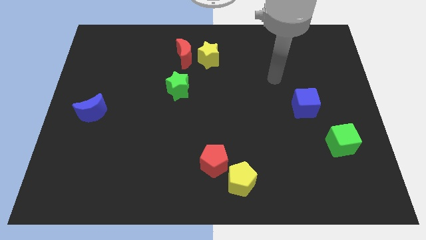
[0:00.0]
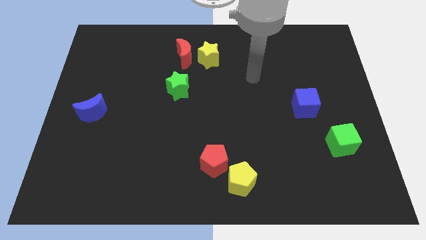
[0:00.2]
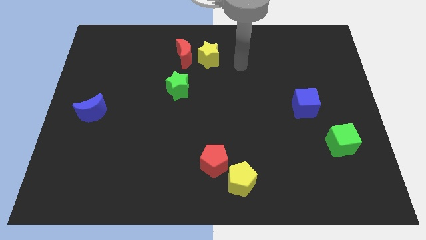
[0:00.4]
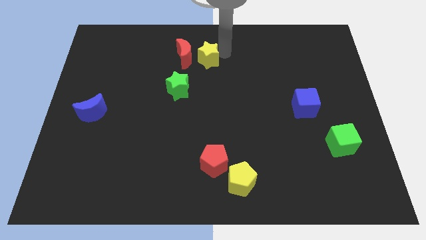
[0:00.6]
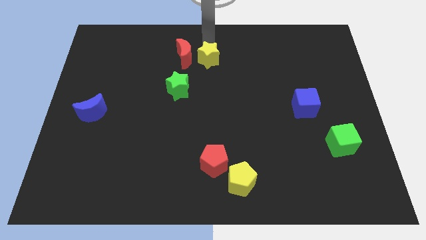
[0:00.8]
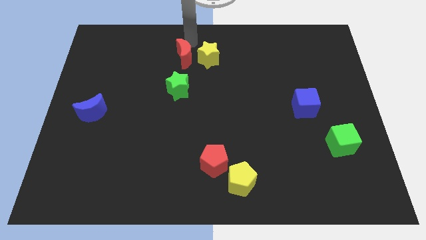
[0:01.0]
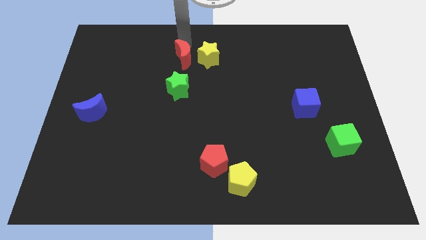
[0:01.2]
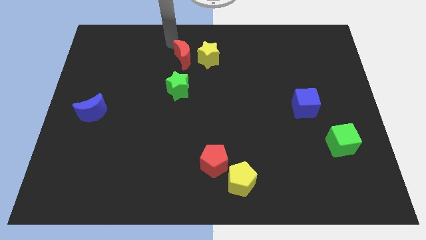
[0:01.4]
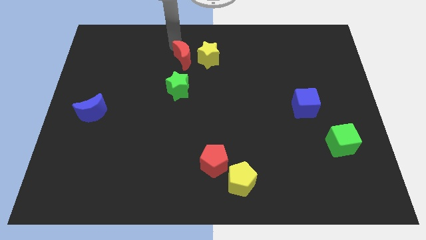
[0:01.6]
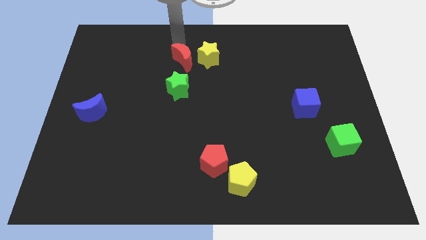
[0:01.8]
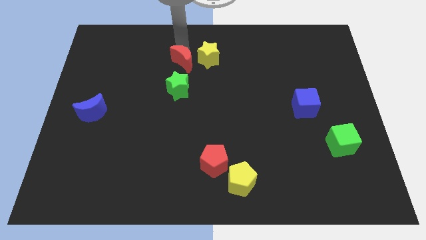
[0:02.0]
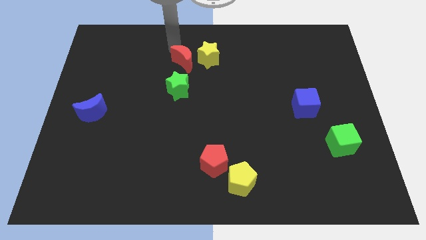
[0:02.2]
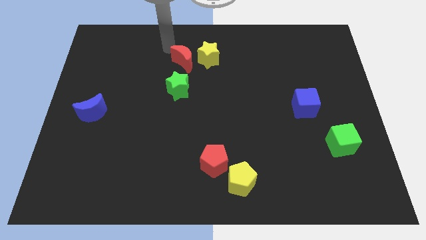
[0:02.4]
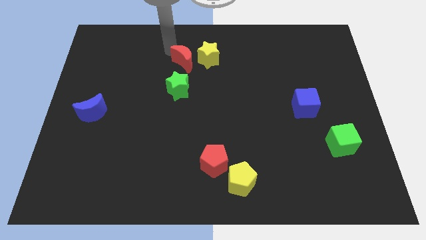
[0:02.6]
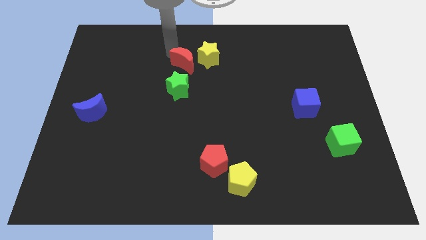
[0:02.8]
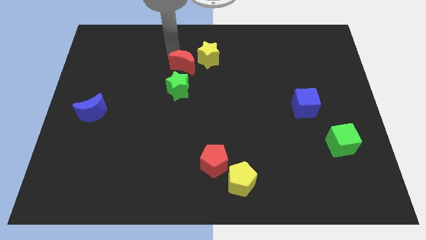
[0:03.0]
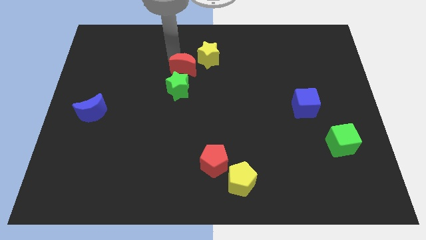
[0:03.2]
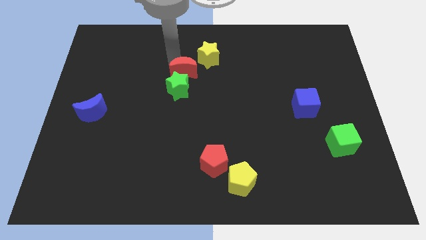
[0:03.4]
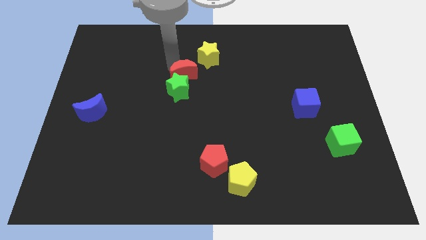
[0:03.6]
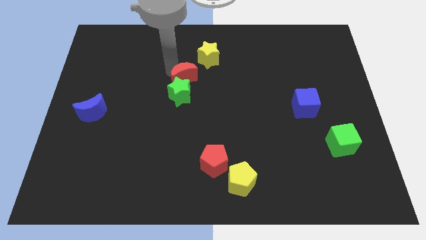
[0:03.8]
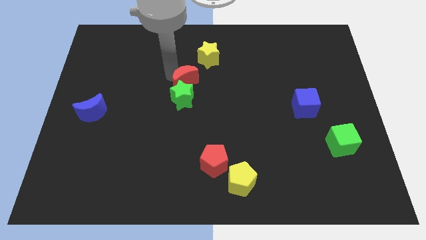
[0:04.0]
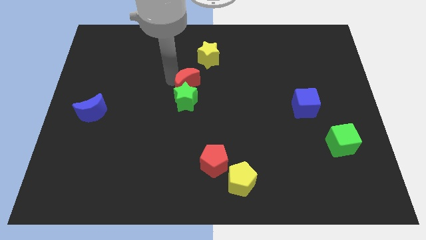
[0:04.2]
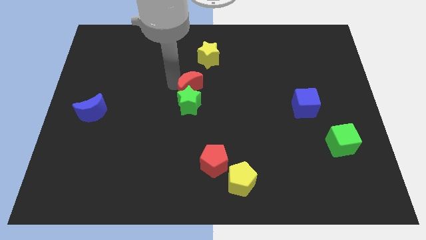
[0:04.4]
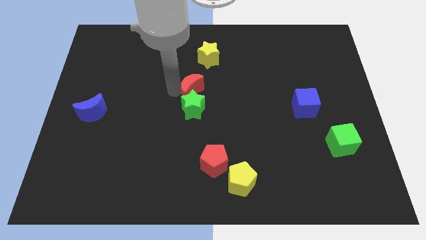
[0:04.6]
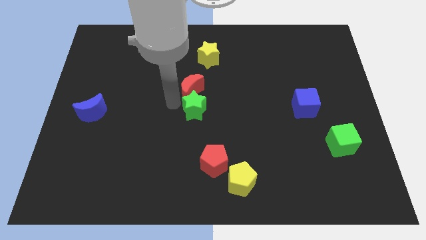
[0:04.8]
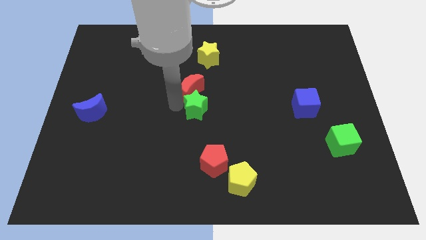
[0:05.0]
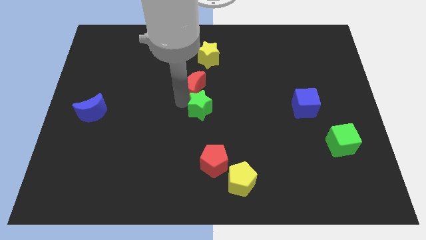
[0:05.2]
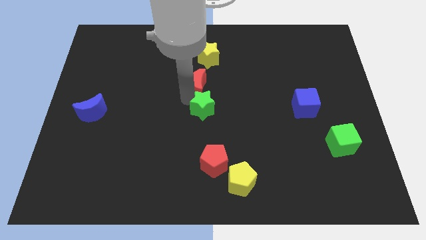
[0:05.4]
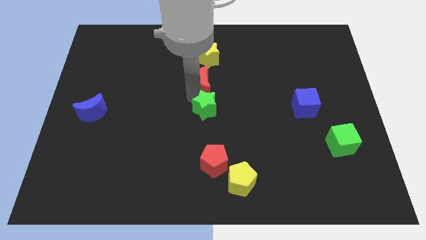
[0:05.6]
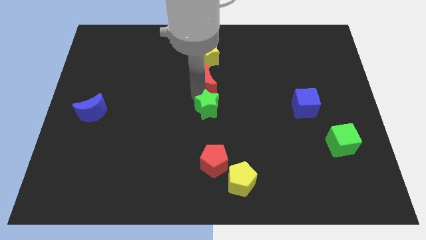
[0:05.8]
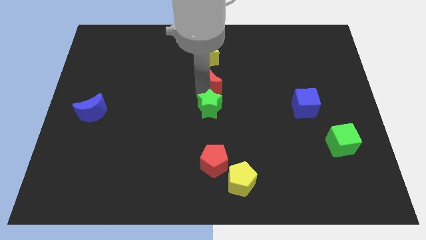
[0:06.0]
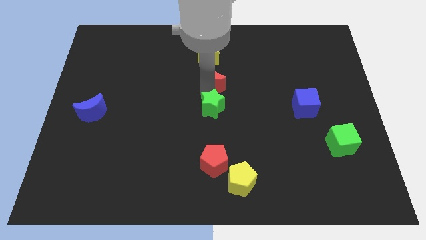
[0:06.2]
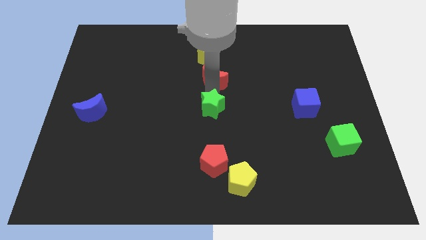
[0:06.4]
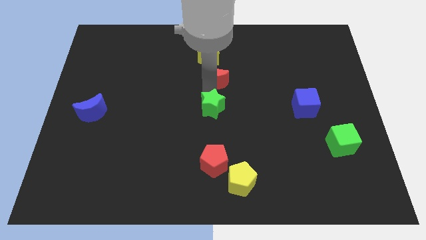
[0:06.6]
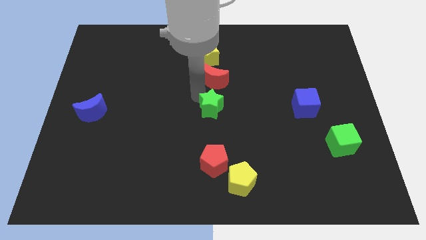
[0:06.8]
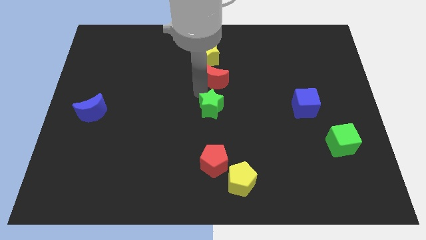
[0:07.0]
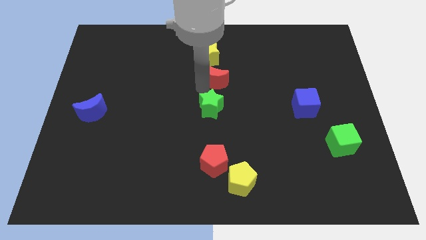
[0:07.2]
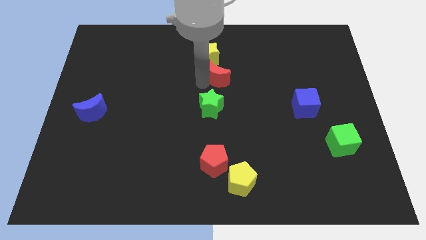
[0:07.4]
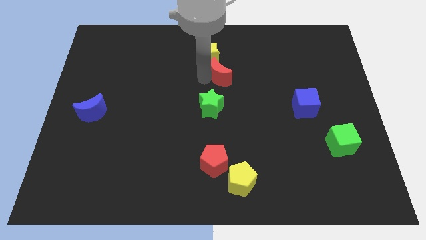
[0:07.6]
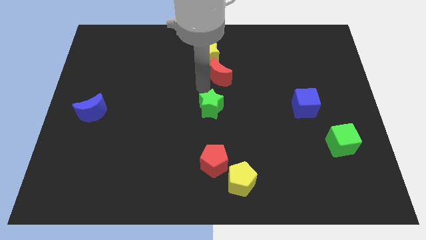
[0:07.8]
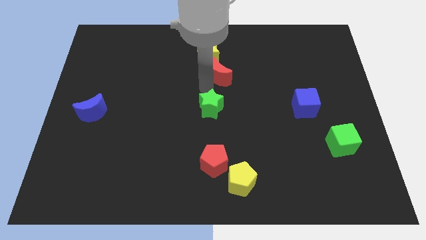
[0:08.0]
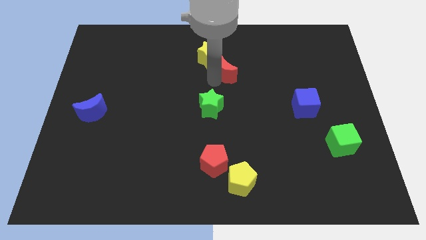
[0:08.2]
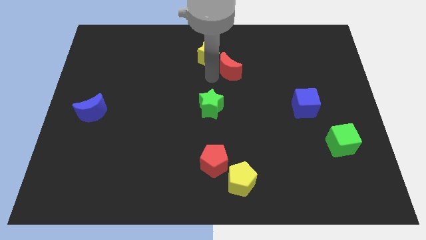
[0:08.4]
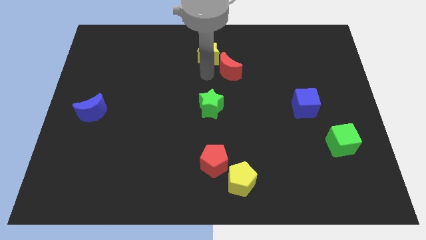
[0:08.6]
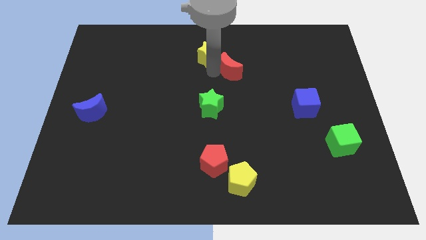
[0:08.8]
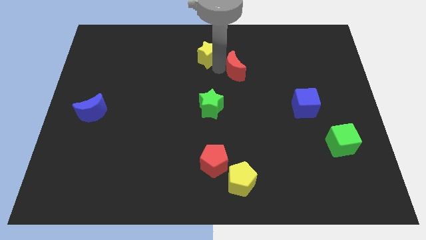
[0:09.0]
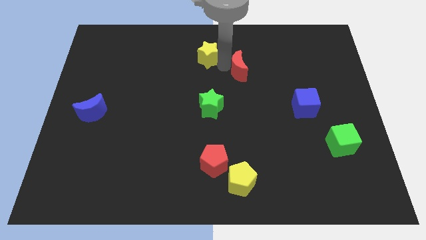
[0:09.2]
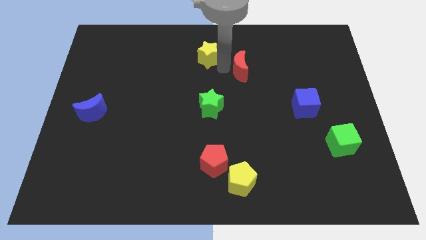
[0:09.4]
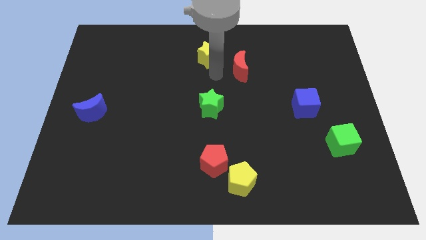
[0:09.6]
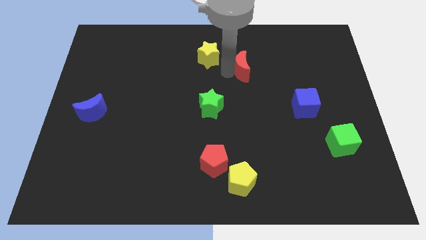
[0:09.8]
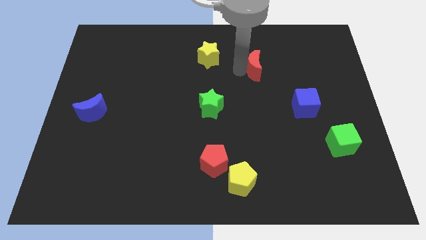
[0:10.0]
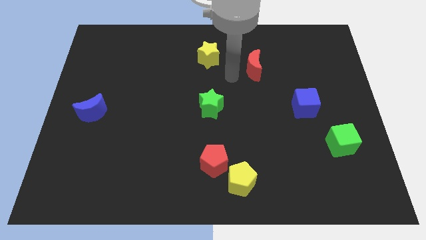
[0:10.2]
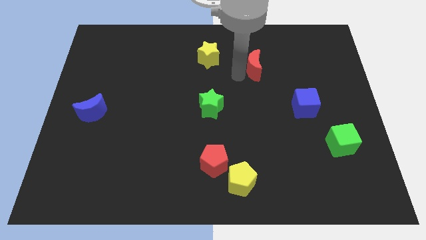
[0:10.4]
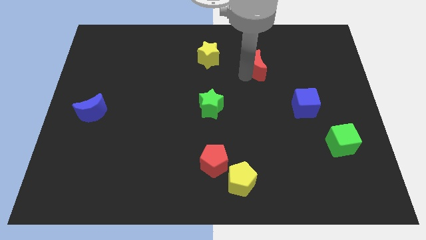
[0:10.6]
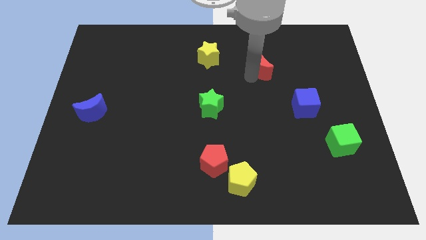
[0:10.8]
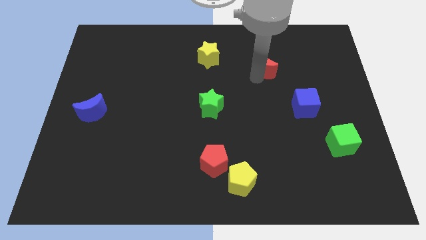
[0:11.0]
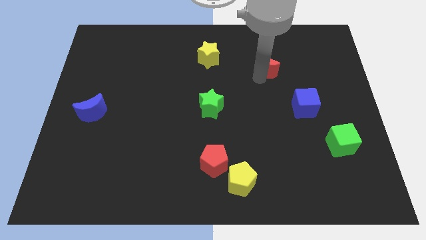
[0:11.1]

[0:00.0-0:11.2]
move the red moon right

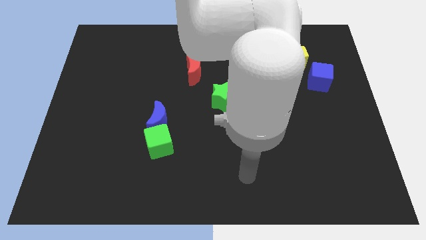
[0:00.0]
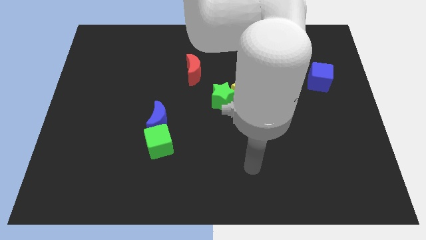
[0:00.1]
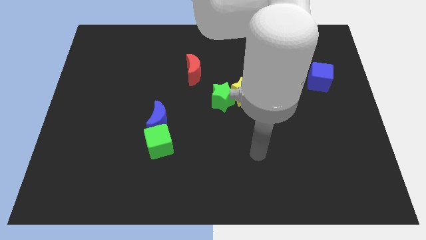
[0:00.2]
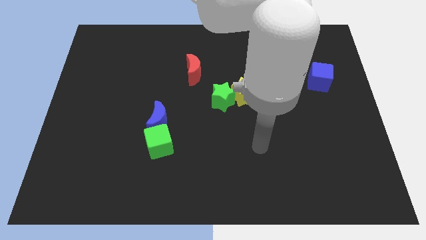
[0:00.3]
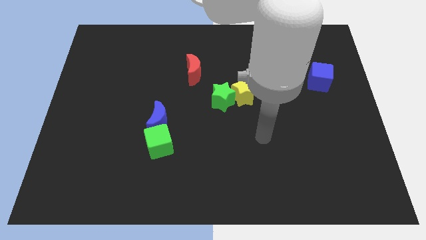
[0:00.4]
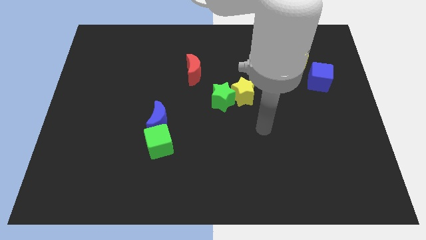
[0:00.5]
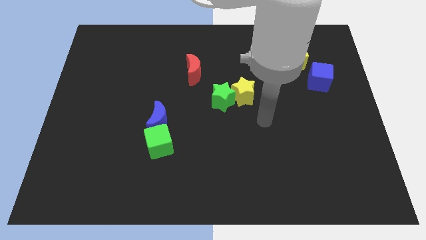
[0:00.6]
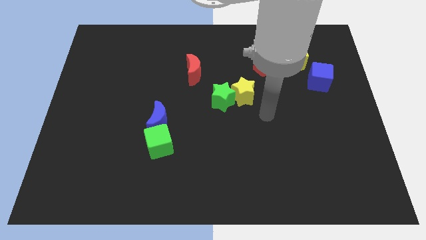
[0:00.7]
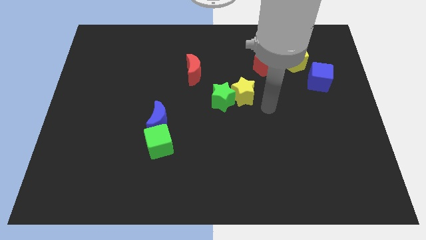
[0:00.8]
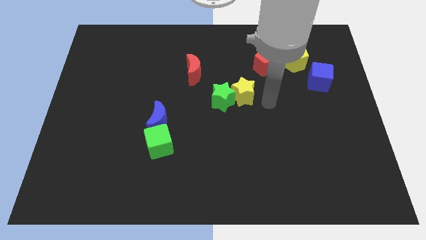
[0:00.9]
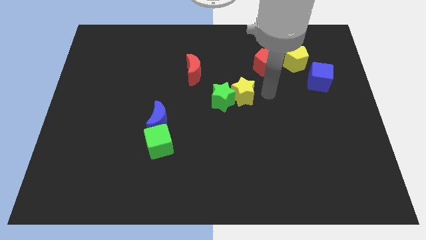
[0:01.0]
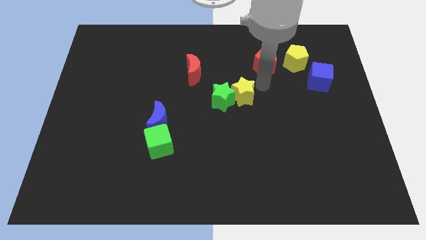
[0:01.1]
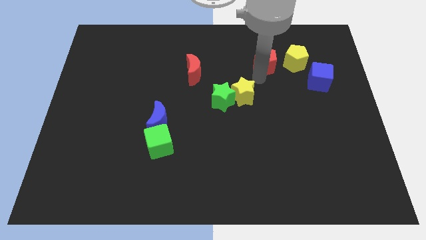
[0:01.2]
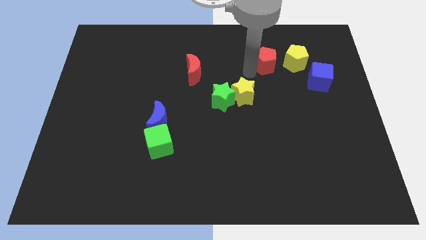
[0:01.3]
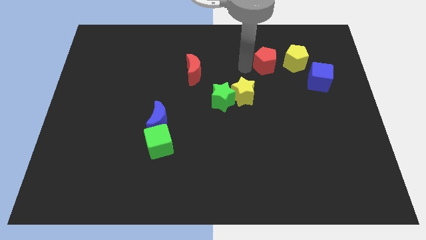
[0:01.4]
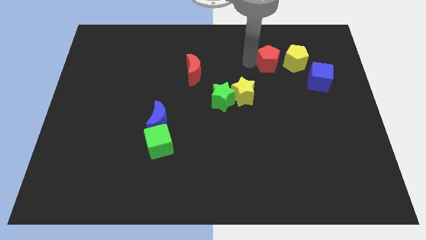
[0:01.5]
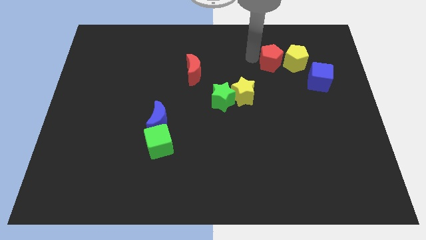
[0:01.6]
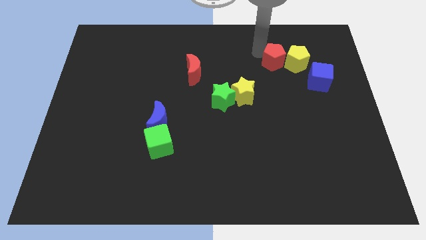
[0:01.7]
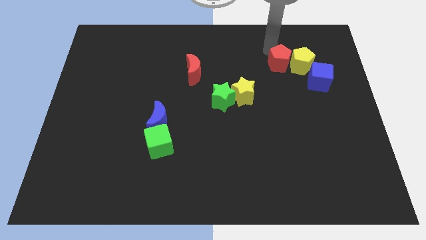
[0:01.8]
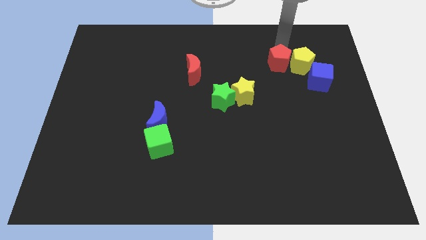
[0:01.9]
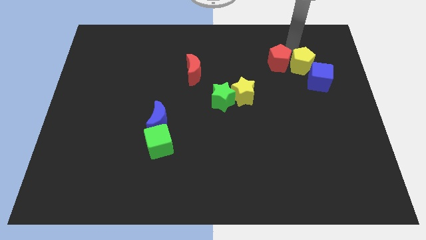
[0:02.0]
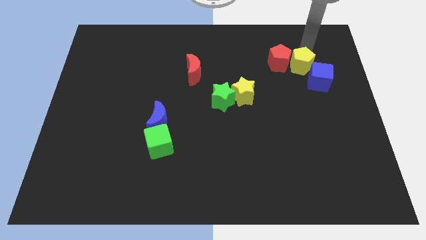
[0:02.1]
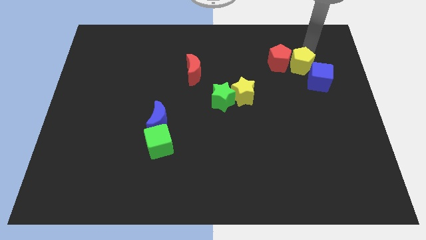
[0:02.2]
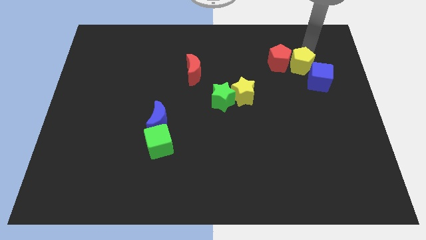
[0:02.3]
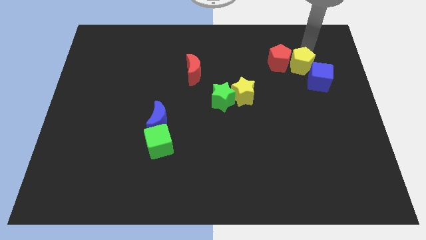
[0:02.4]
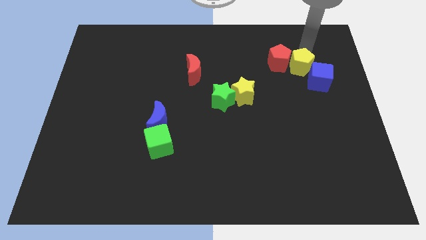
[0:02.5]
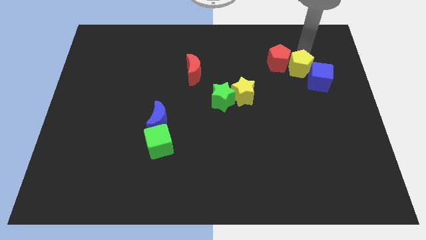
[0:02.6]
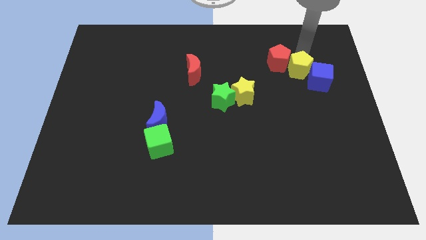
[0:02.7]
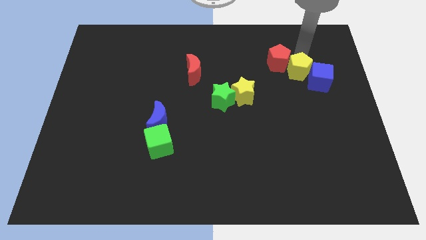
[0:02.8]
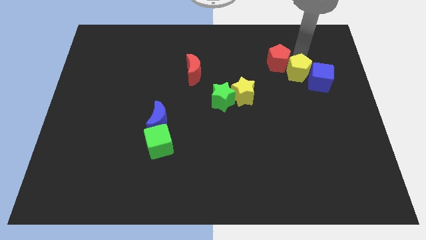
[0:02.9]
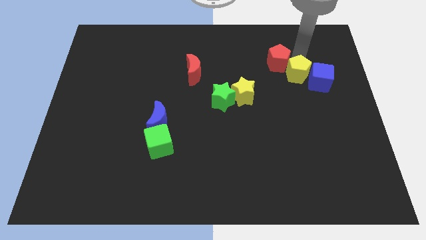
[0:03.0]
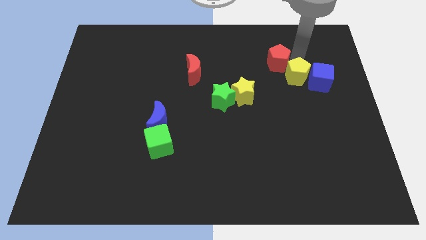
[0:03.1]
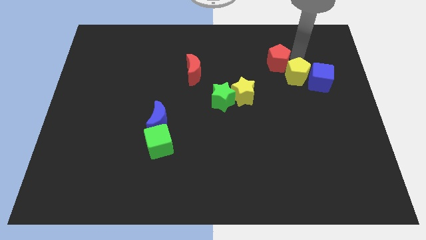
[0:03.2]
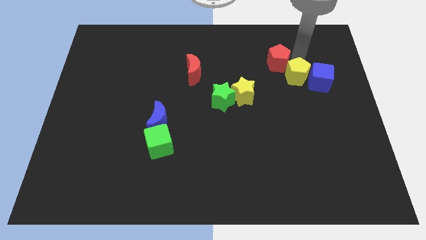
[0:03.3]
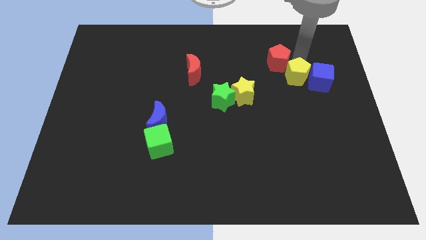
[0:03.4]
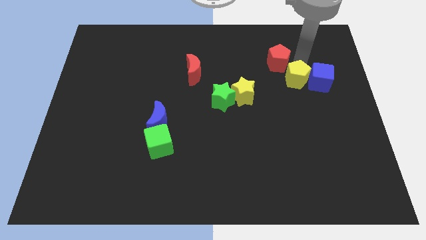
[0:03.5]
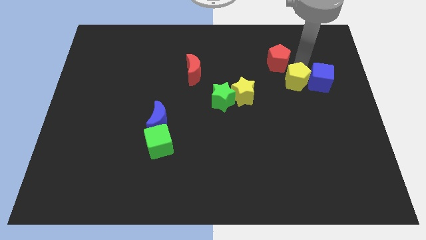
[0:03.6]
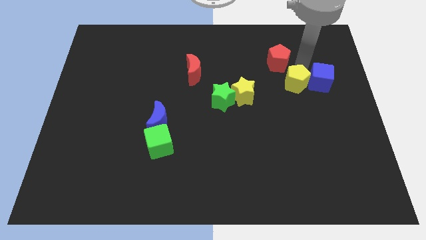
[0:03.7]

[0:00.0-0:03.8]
push the yellow pentagon down somewhat
